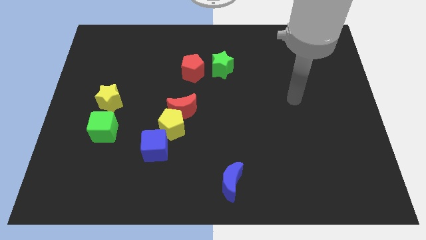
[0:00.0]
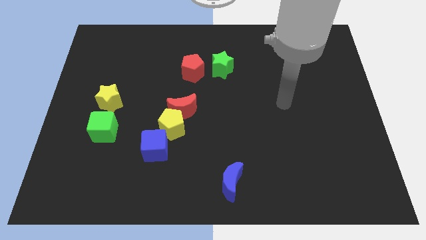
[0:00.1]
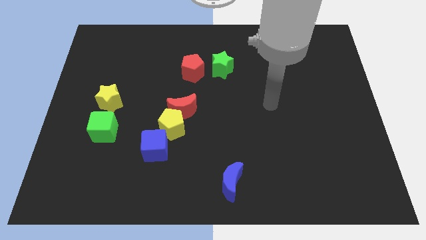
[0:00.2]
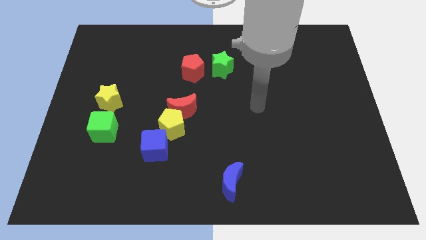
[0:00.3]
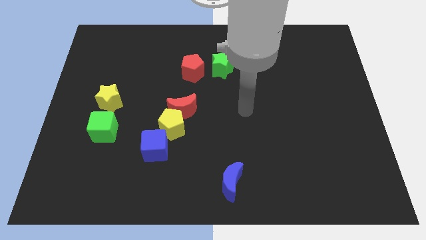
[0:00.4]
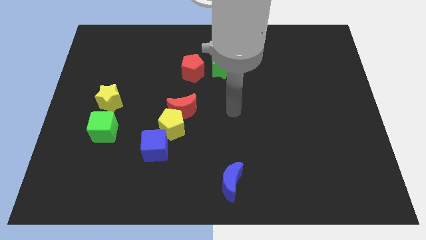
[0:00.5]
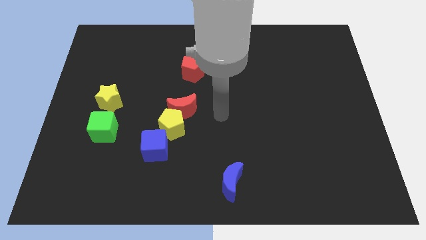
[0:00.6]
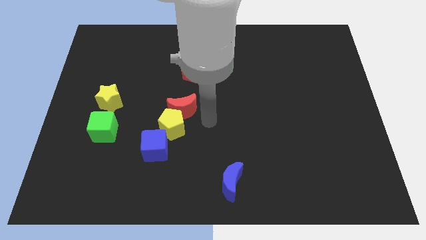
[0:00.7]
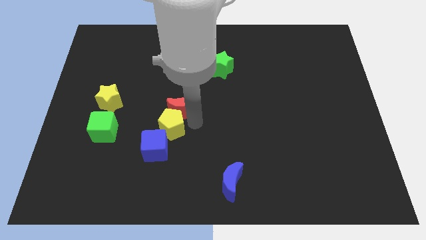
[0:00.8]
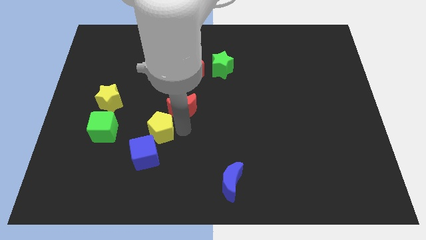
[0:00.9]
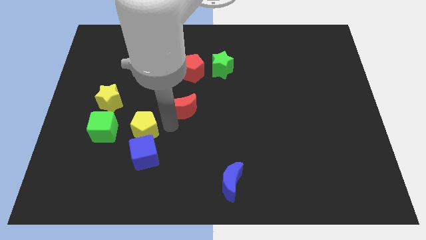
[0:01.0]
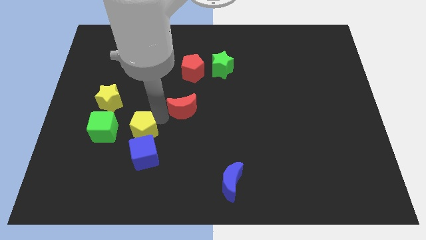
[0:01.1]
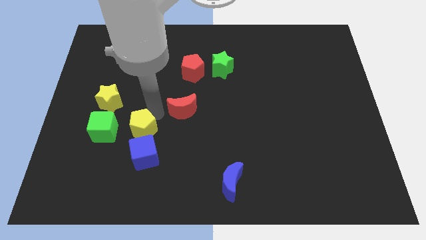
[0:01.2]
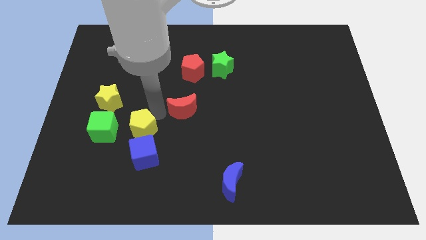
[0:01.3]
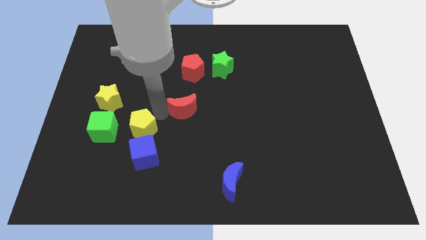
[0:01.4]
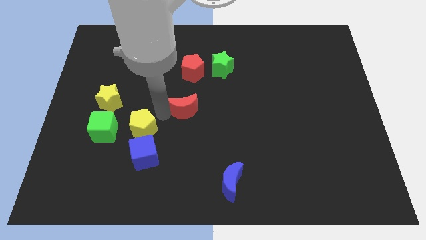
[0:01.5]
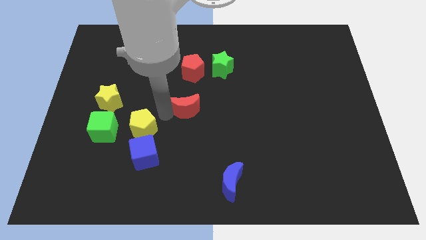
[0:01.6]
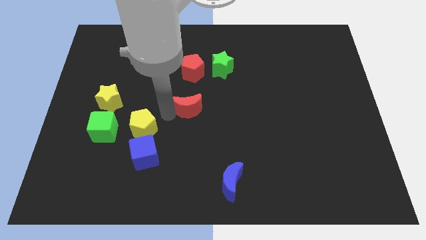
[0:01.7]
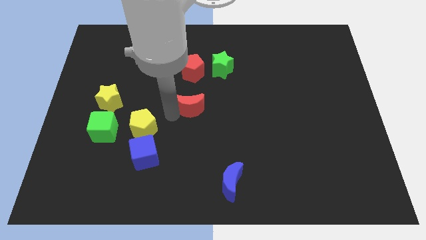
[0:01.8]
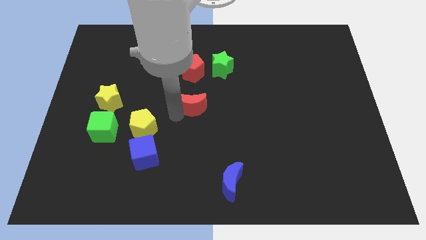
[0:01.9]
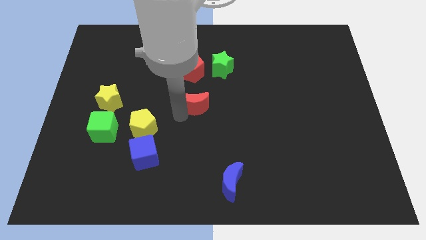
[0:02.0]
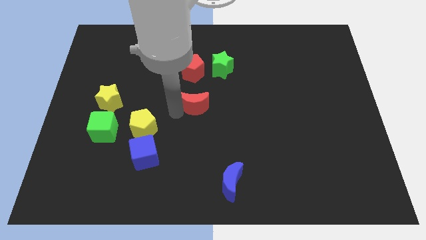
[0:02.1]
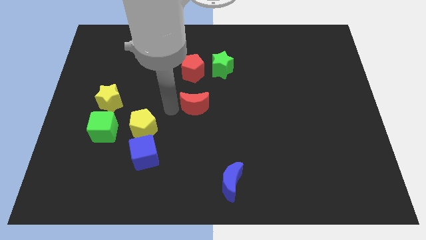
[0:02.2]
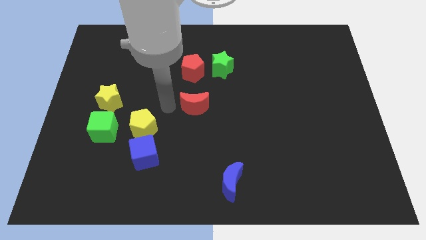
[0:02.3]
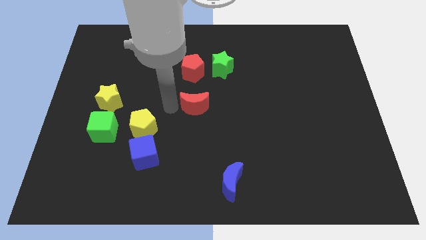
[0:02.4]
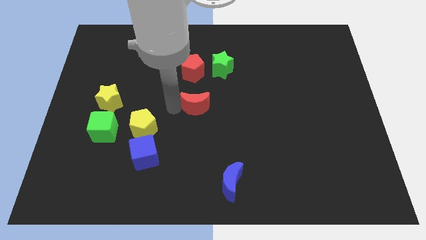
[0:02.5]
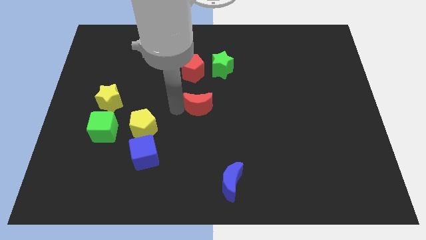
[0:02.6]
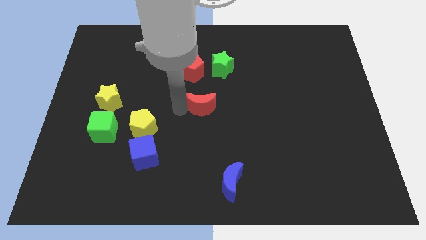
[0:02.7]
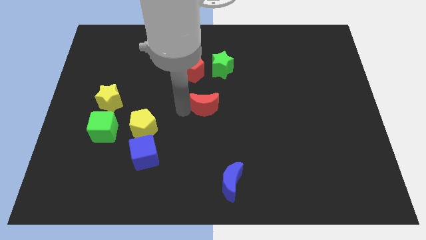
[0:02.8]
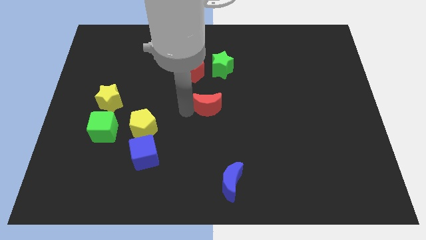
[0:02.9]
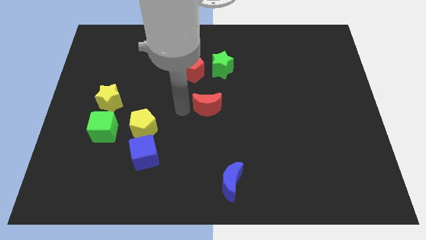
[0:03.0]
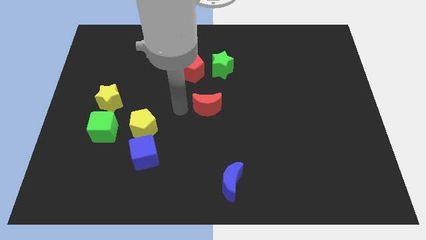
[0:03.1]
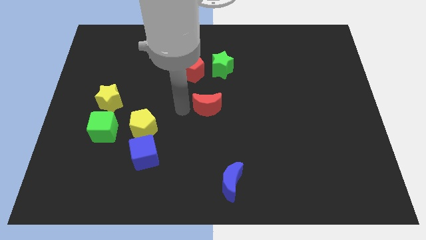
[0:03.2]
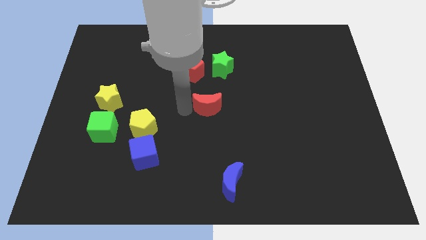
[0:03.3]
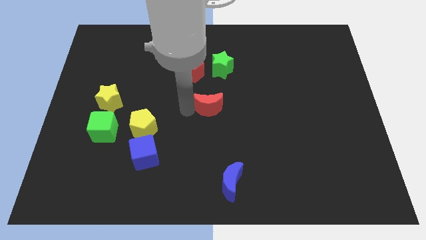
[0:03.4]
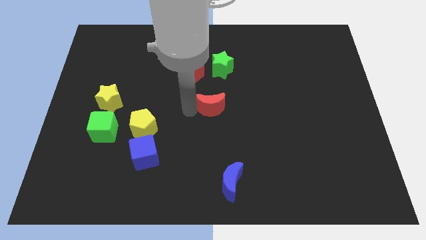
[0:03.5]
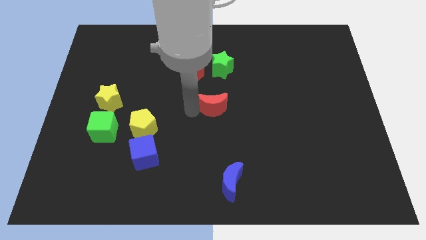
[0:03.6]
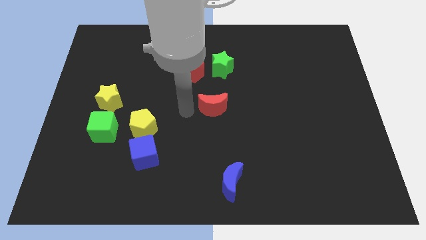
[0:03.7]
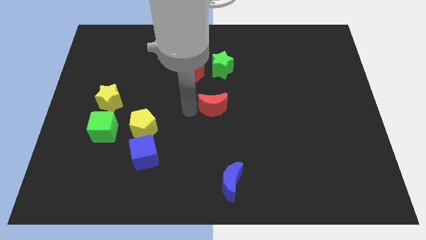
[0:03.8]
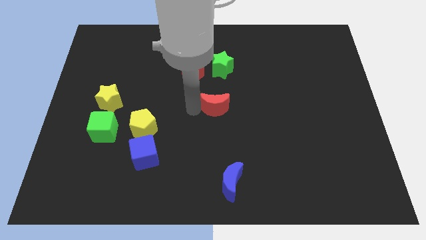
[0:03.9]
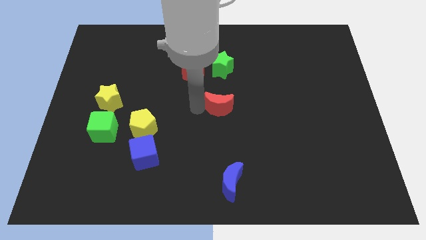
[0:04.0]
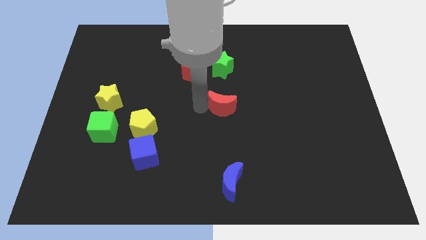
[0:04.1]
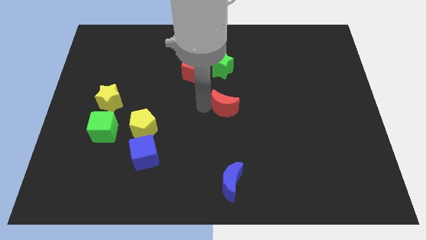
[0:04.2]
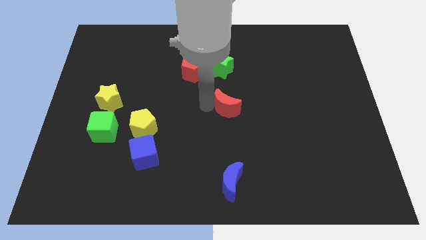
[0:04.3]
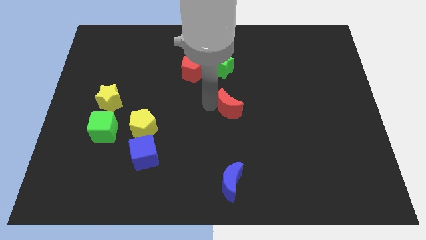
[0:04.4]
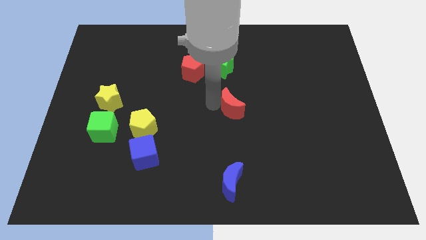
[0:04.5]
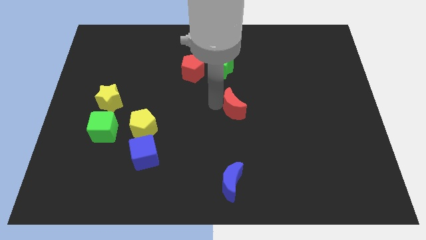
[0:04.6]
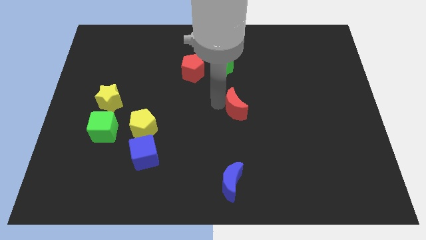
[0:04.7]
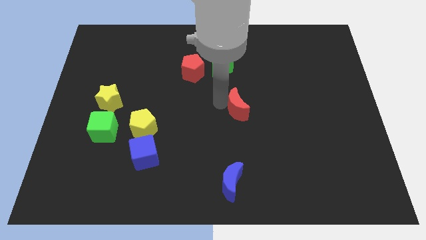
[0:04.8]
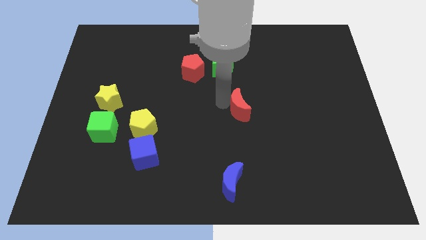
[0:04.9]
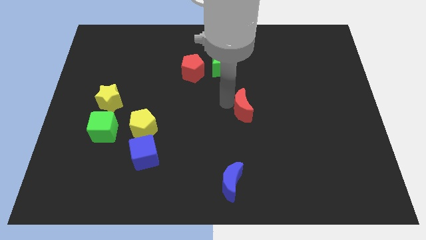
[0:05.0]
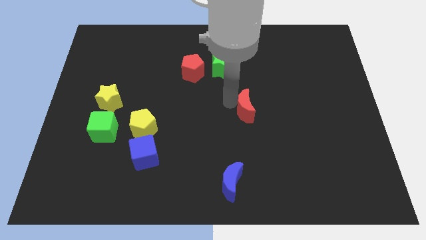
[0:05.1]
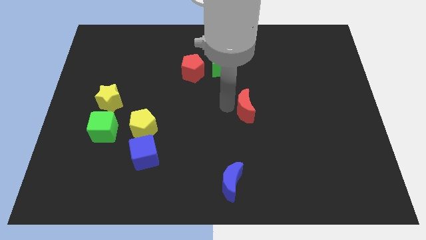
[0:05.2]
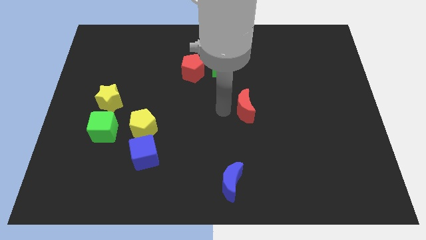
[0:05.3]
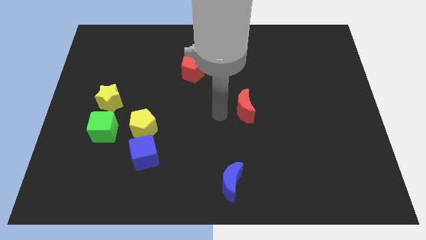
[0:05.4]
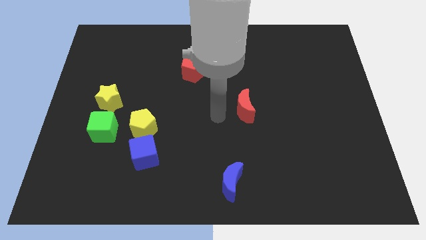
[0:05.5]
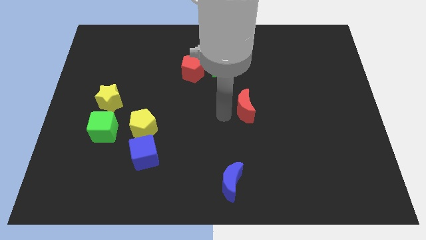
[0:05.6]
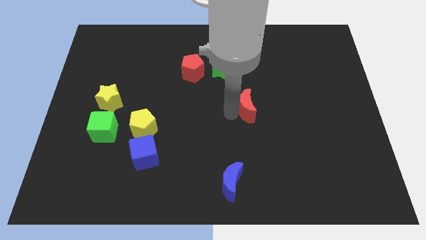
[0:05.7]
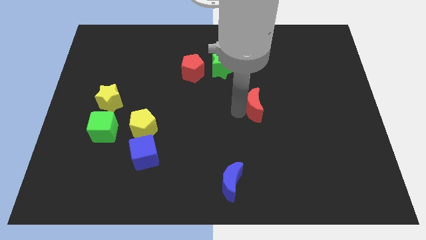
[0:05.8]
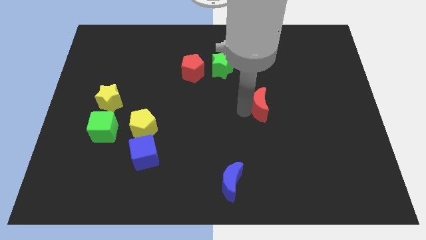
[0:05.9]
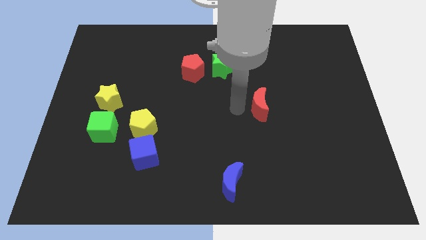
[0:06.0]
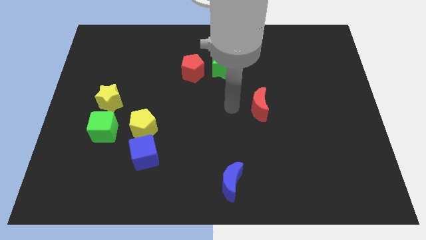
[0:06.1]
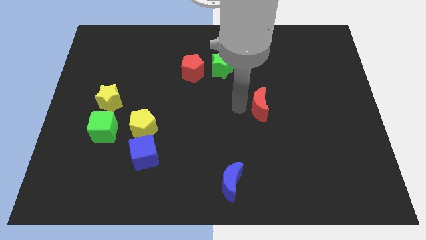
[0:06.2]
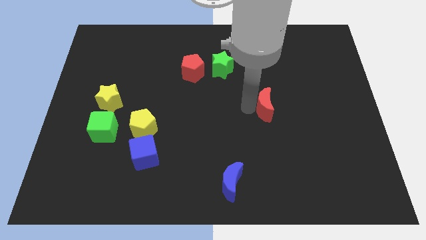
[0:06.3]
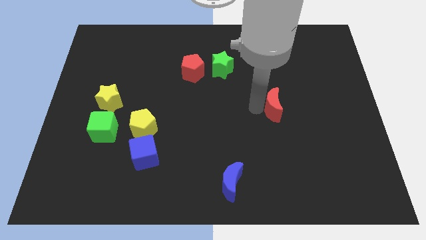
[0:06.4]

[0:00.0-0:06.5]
move the red moon to the right

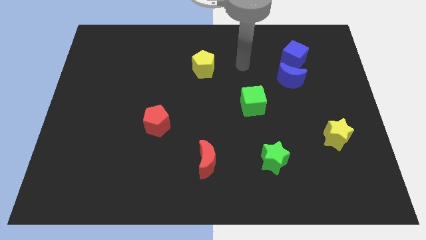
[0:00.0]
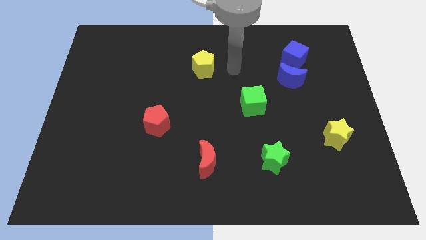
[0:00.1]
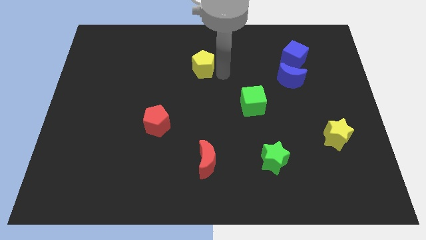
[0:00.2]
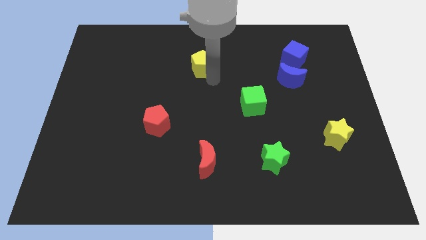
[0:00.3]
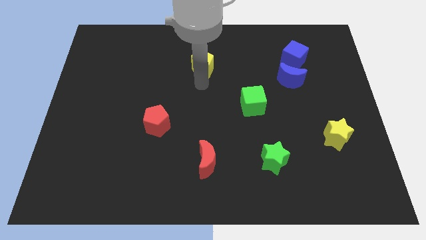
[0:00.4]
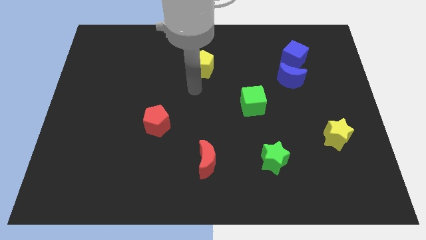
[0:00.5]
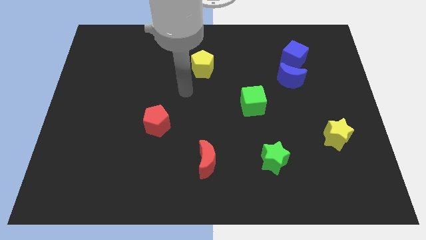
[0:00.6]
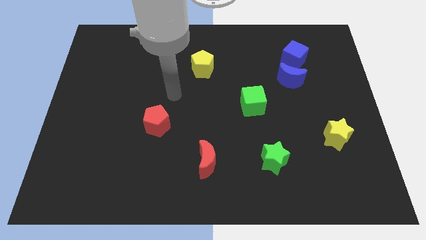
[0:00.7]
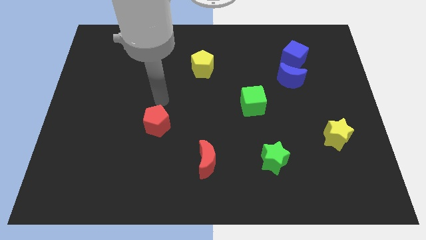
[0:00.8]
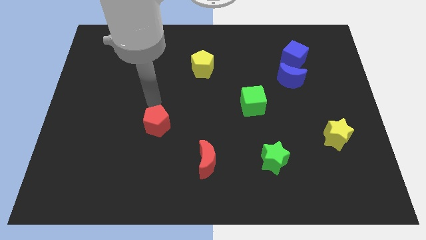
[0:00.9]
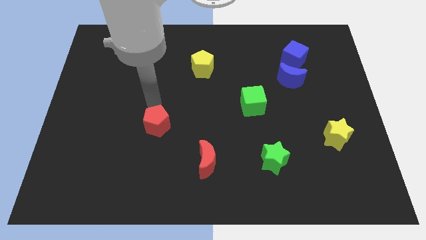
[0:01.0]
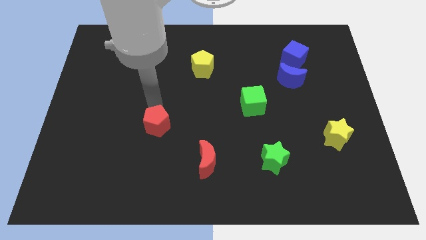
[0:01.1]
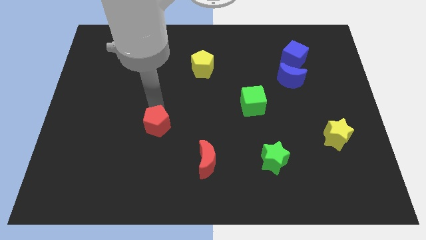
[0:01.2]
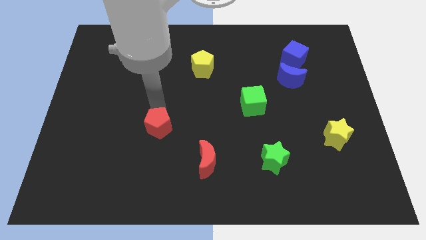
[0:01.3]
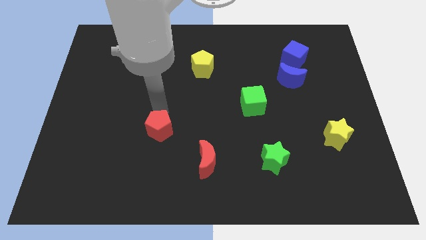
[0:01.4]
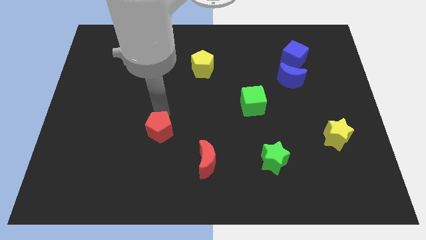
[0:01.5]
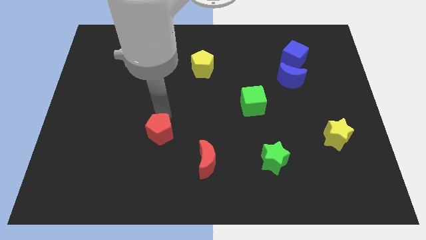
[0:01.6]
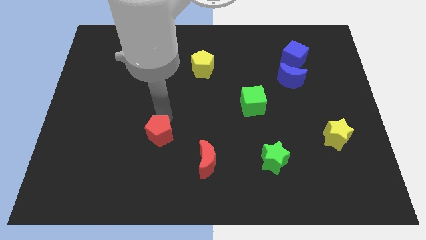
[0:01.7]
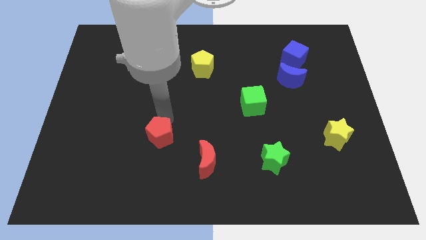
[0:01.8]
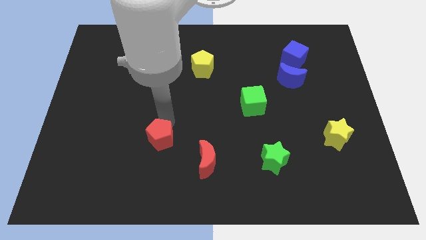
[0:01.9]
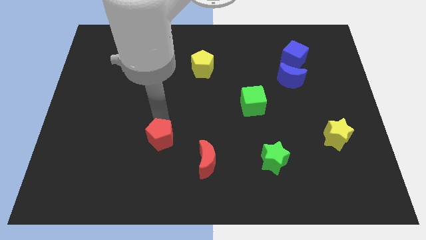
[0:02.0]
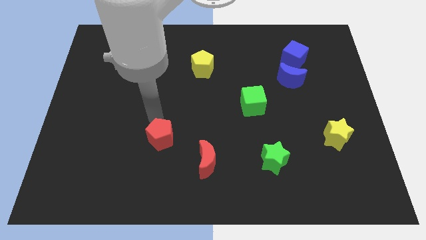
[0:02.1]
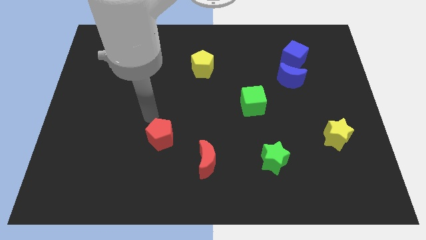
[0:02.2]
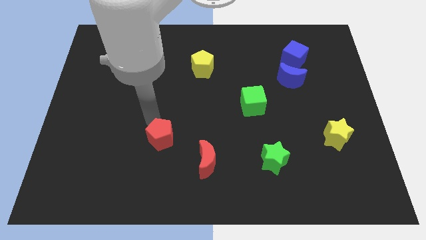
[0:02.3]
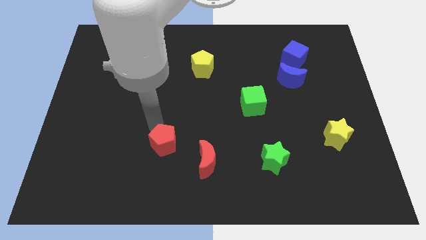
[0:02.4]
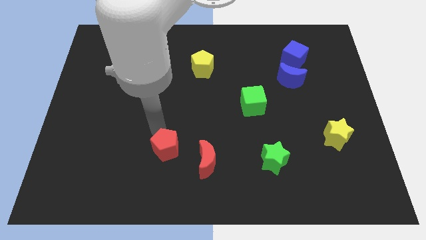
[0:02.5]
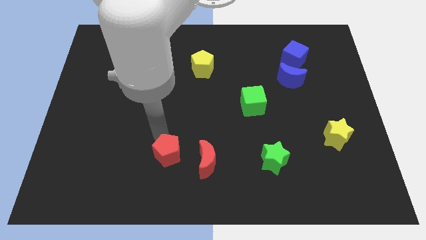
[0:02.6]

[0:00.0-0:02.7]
push the red pentagon diagonally down and to the right somewhat
